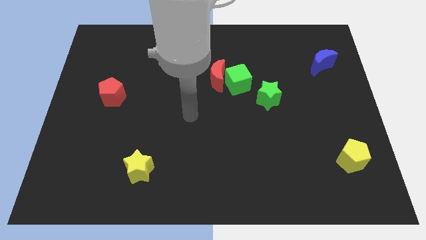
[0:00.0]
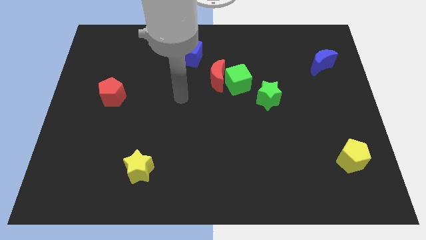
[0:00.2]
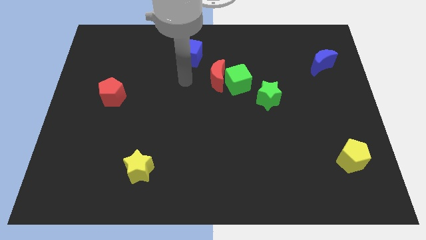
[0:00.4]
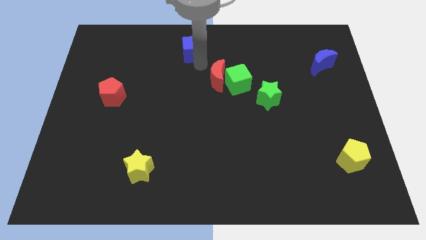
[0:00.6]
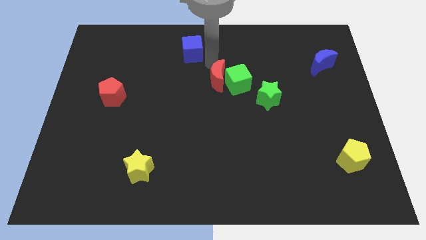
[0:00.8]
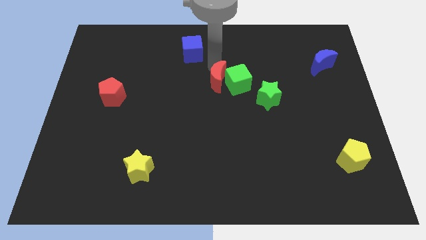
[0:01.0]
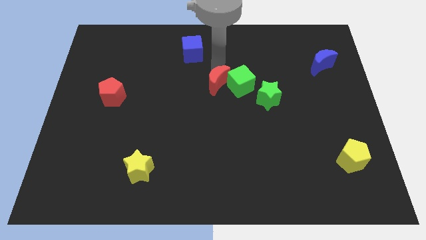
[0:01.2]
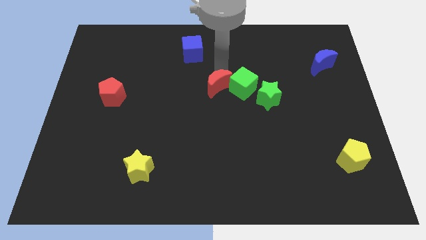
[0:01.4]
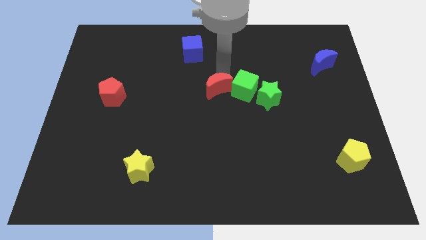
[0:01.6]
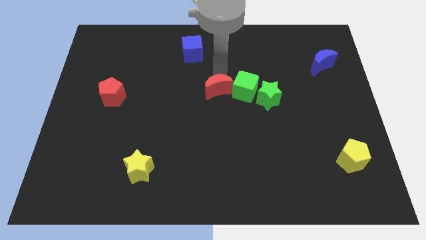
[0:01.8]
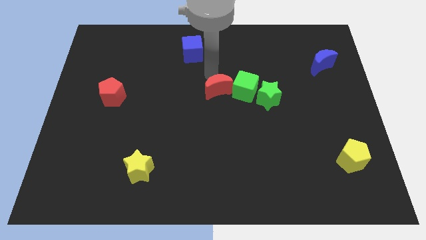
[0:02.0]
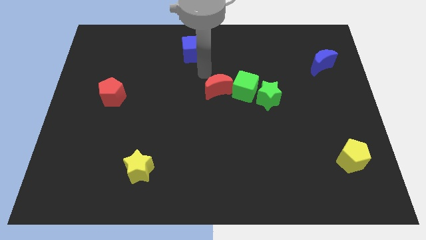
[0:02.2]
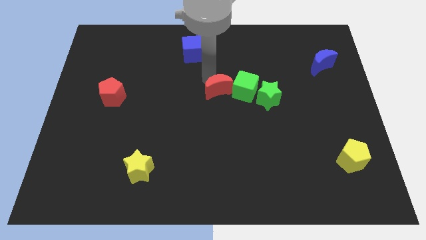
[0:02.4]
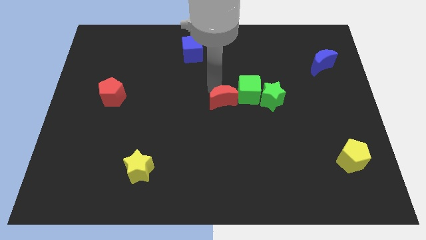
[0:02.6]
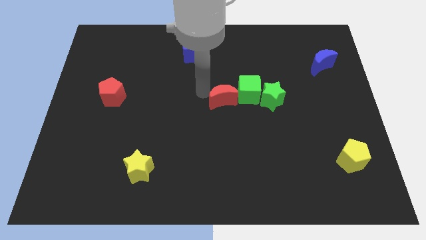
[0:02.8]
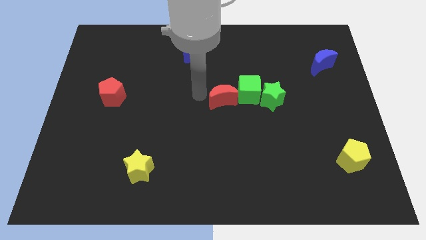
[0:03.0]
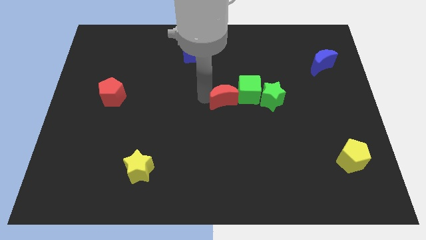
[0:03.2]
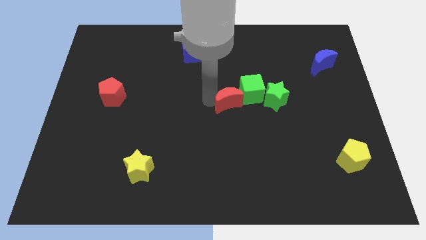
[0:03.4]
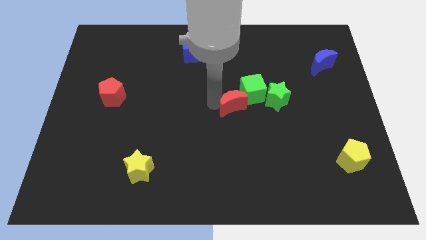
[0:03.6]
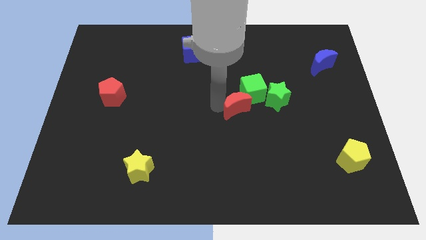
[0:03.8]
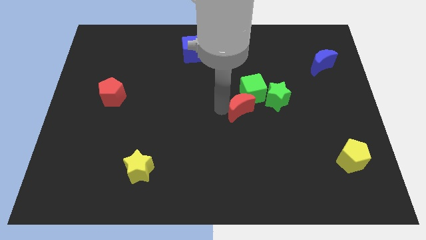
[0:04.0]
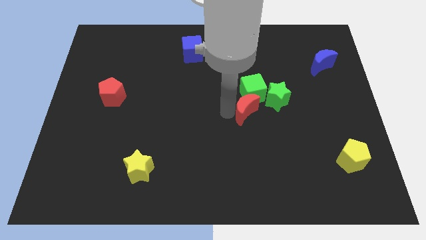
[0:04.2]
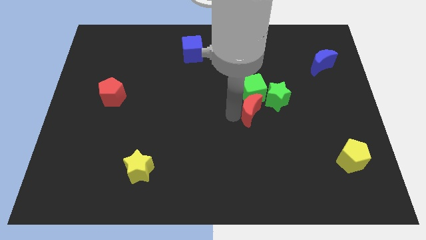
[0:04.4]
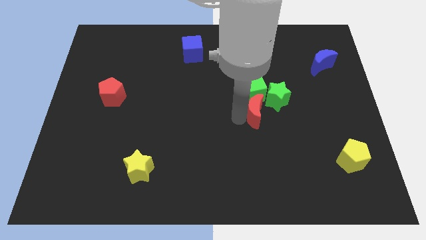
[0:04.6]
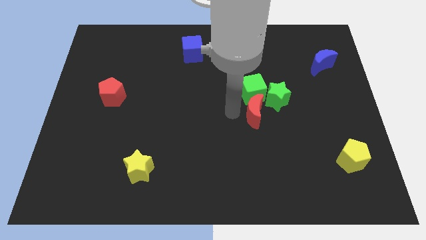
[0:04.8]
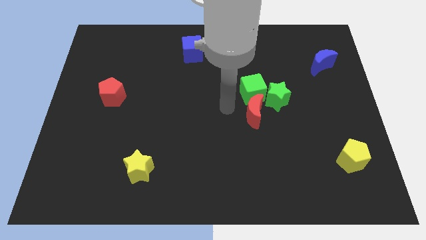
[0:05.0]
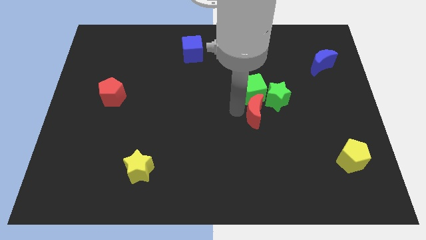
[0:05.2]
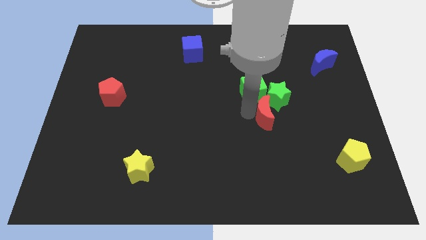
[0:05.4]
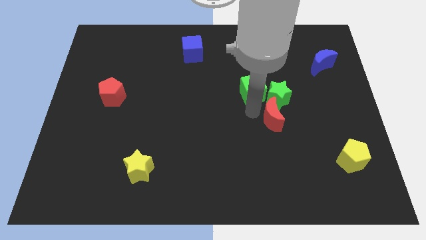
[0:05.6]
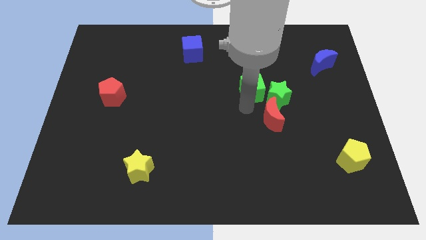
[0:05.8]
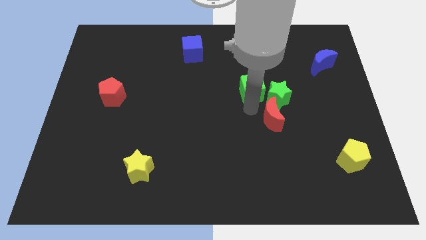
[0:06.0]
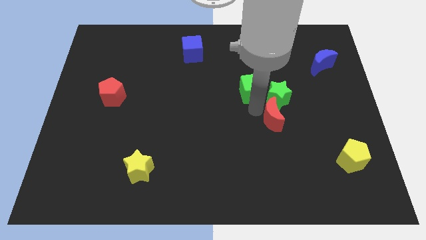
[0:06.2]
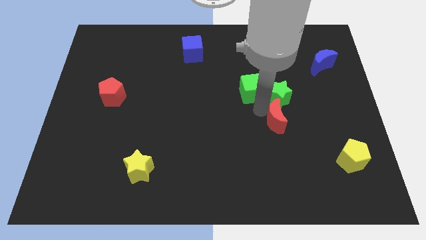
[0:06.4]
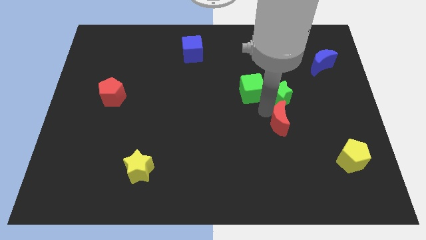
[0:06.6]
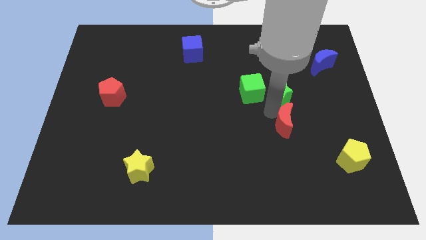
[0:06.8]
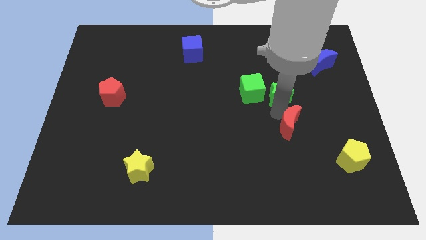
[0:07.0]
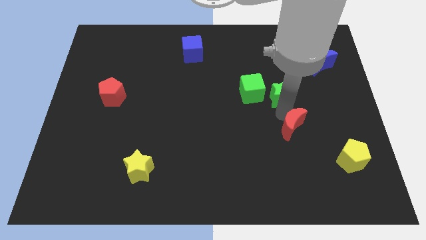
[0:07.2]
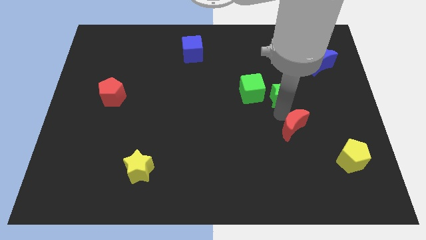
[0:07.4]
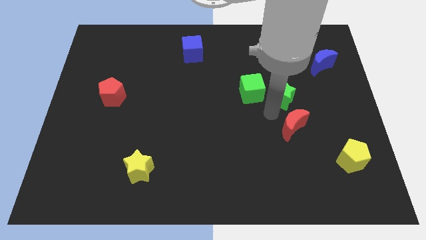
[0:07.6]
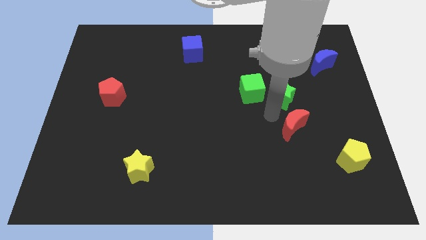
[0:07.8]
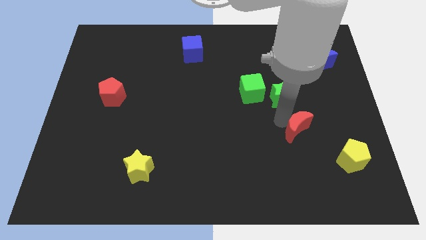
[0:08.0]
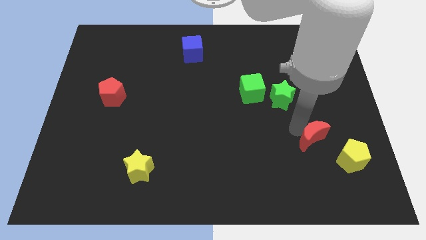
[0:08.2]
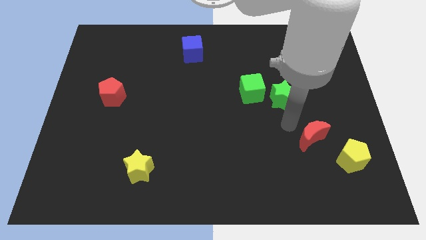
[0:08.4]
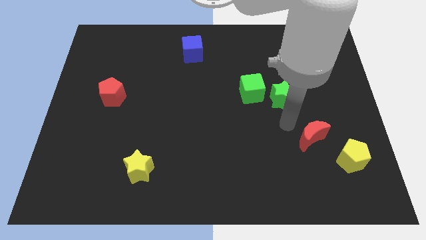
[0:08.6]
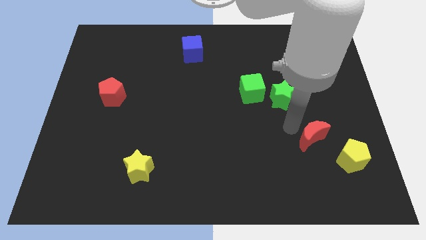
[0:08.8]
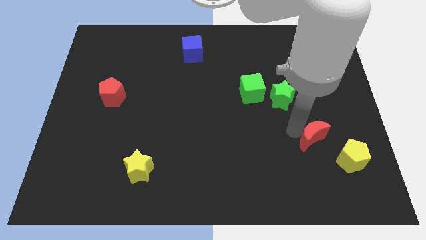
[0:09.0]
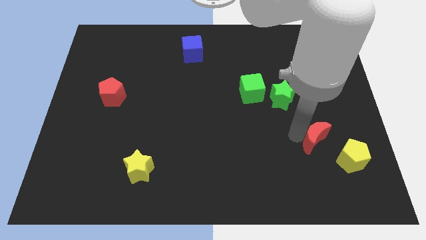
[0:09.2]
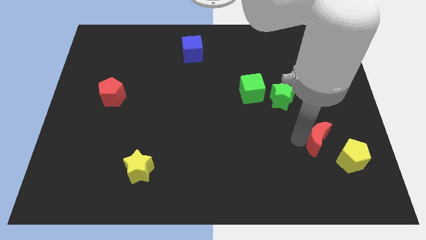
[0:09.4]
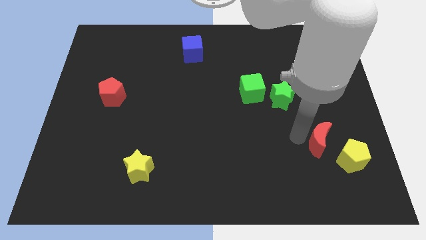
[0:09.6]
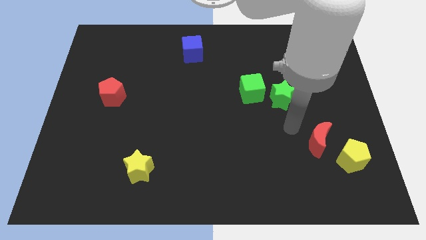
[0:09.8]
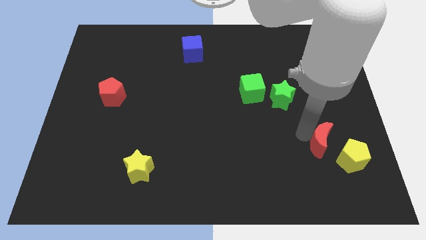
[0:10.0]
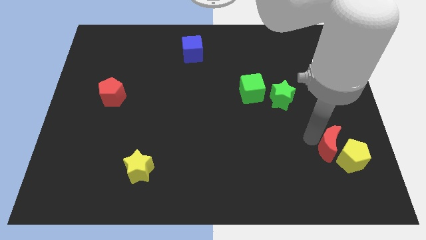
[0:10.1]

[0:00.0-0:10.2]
put the red moon towards the yellow pentagon

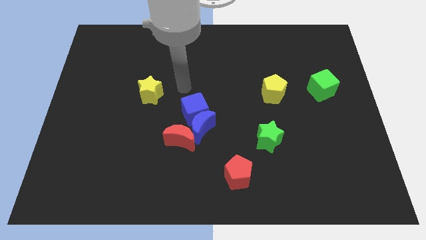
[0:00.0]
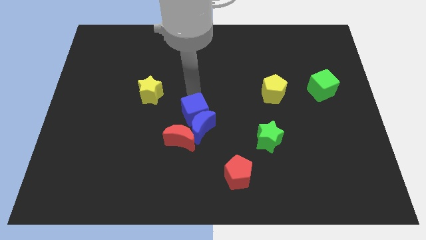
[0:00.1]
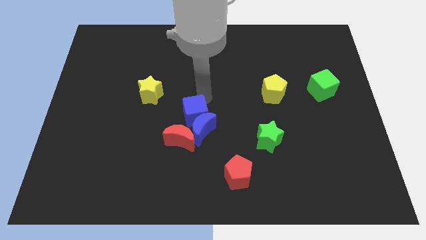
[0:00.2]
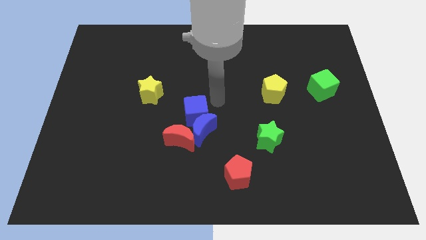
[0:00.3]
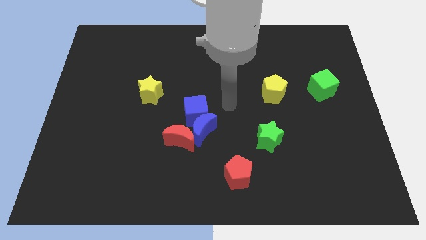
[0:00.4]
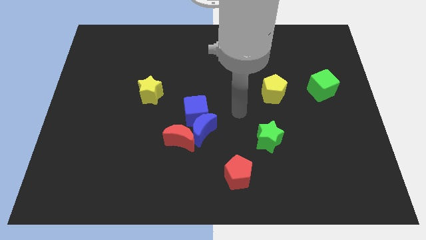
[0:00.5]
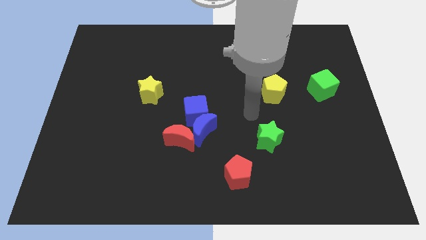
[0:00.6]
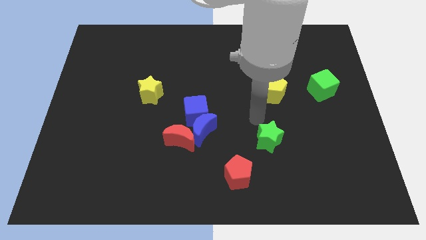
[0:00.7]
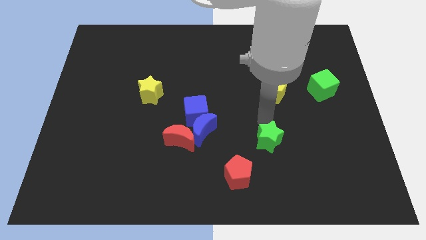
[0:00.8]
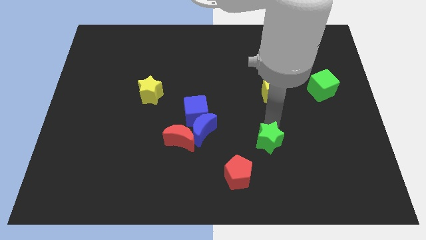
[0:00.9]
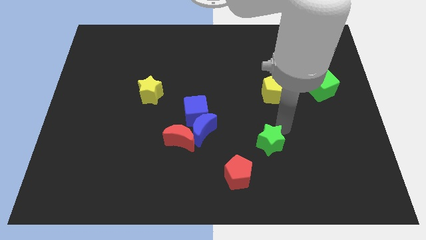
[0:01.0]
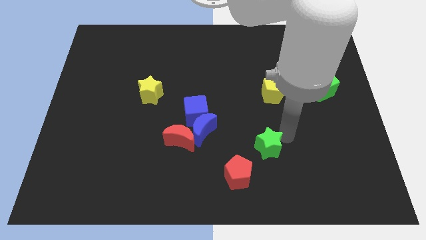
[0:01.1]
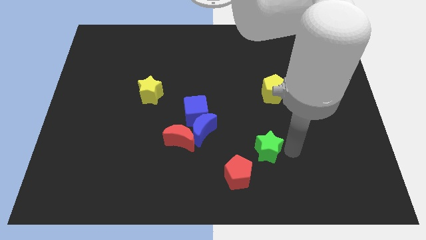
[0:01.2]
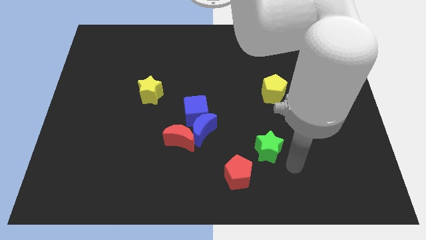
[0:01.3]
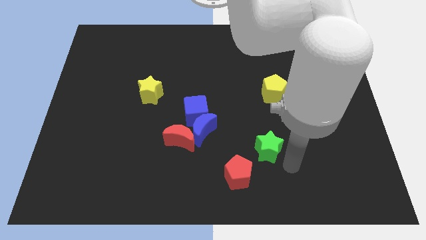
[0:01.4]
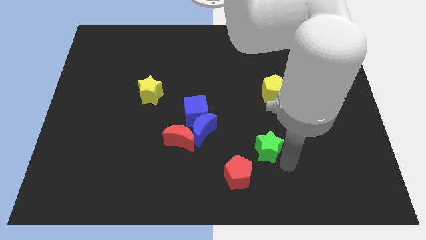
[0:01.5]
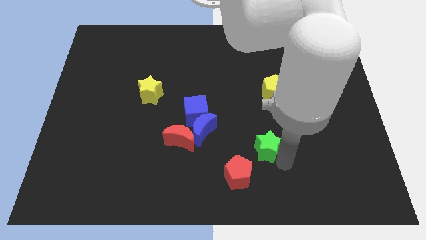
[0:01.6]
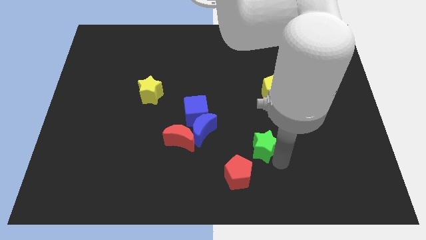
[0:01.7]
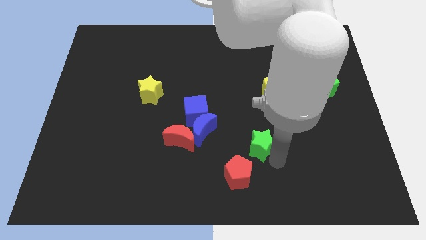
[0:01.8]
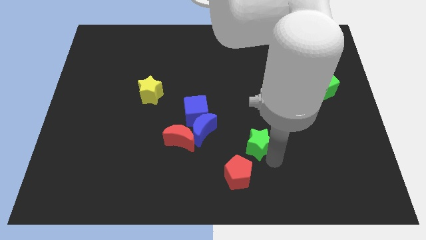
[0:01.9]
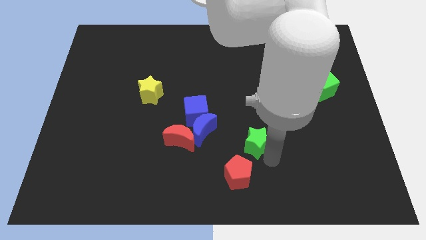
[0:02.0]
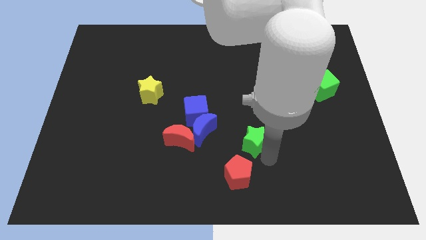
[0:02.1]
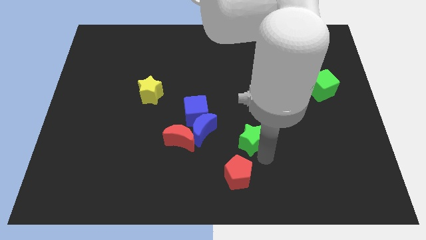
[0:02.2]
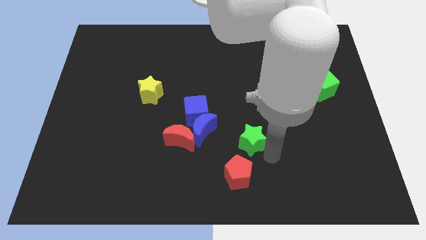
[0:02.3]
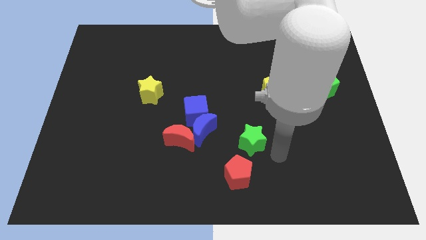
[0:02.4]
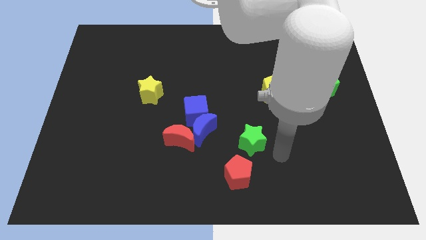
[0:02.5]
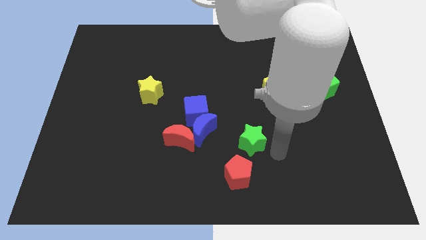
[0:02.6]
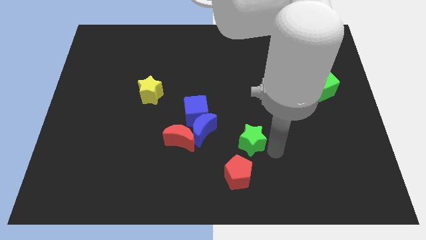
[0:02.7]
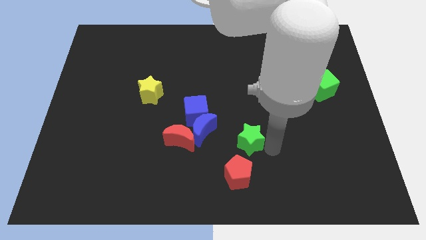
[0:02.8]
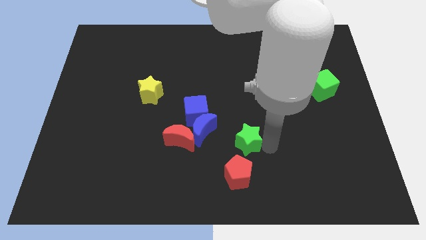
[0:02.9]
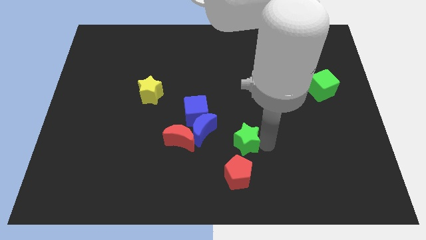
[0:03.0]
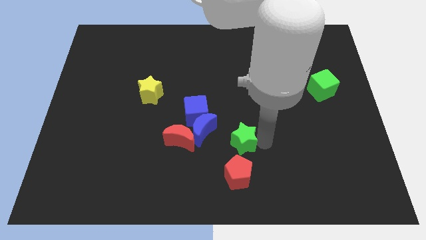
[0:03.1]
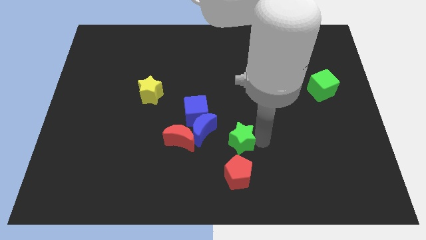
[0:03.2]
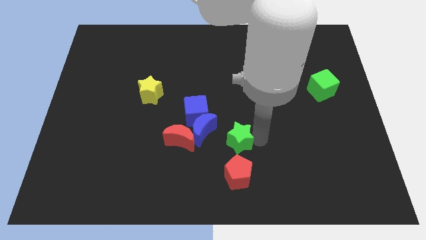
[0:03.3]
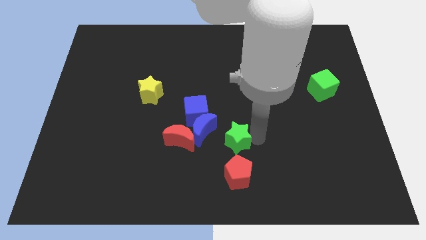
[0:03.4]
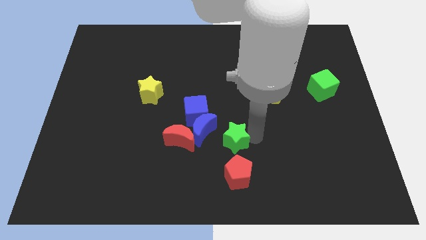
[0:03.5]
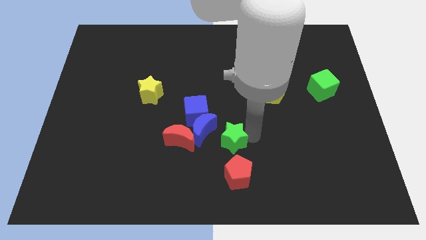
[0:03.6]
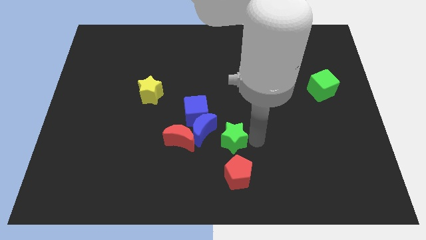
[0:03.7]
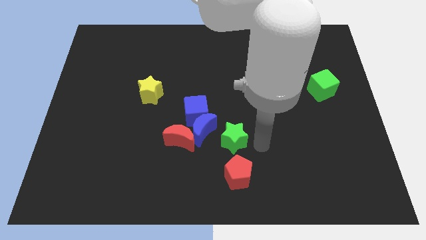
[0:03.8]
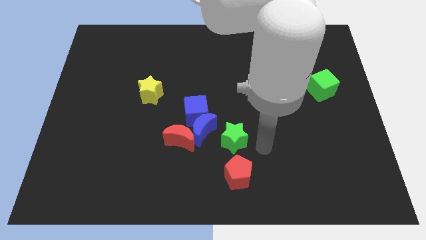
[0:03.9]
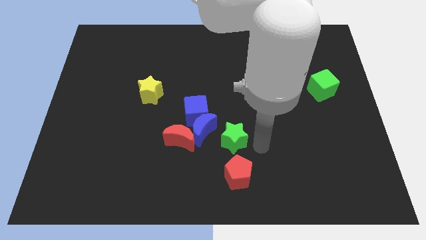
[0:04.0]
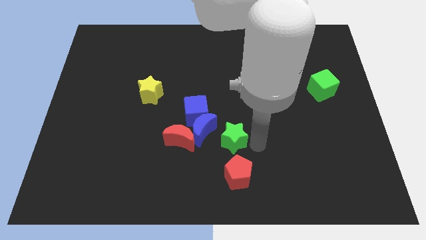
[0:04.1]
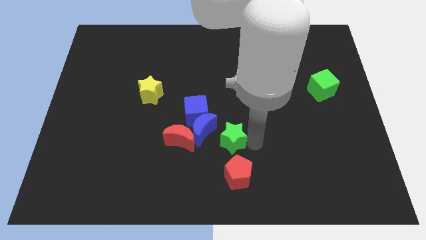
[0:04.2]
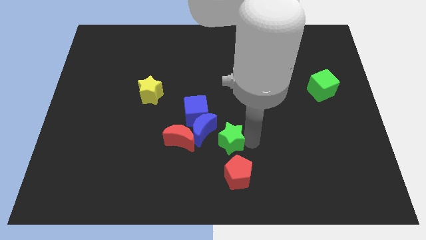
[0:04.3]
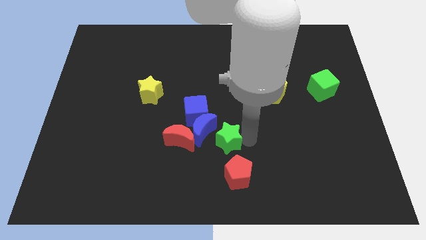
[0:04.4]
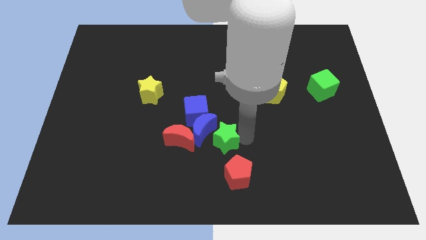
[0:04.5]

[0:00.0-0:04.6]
slide the green star towards the blue moon
